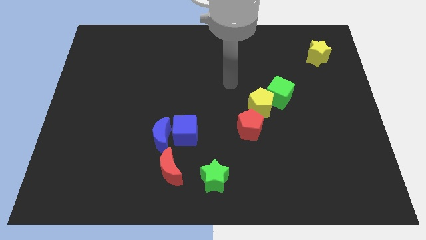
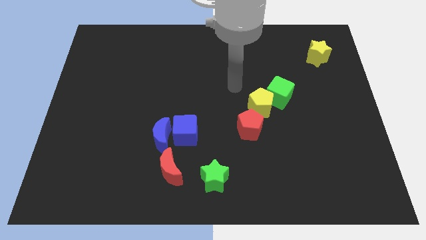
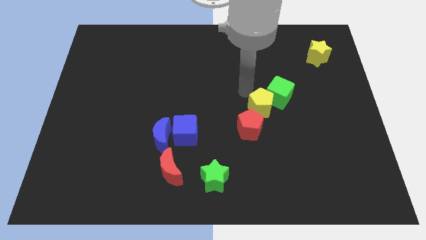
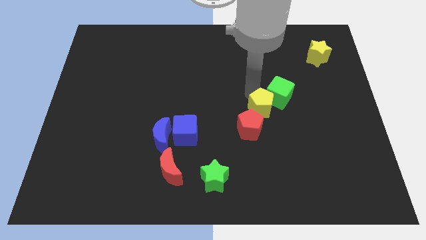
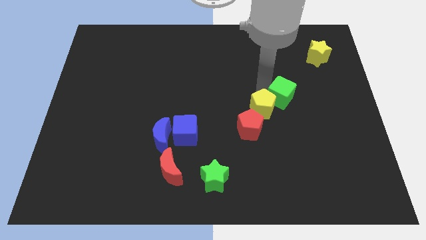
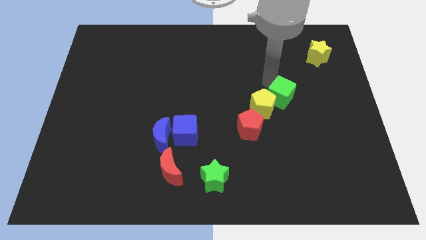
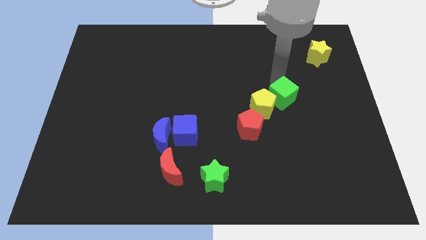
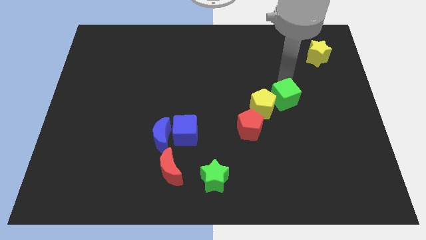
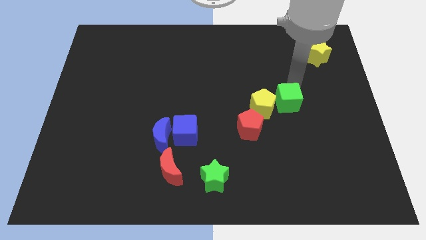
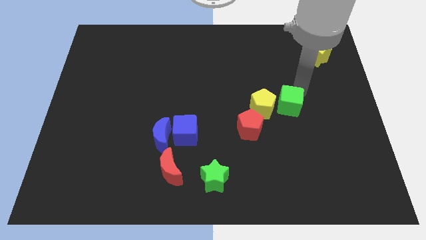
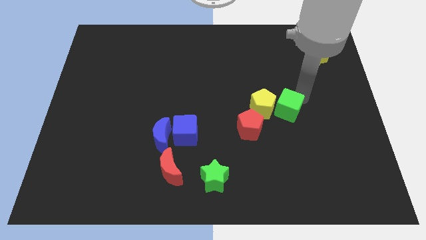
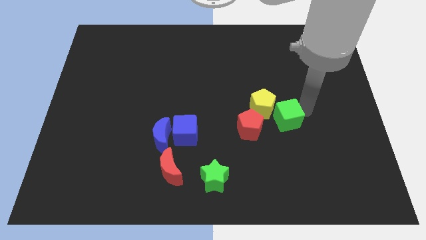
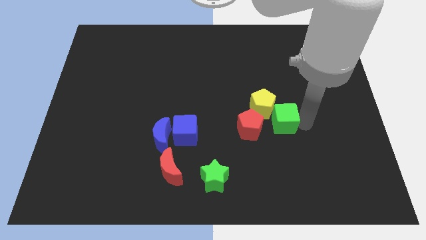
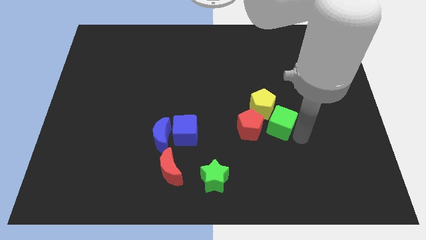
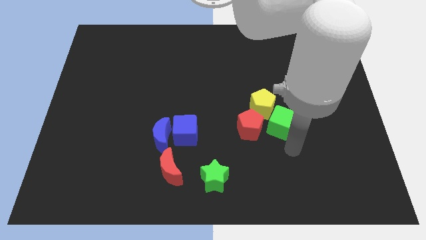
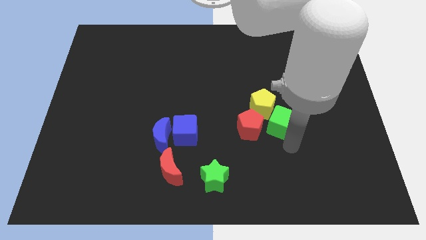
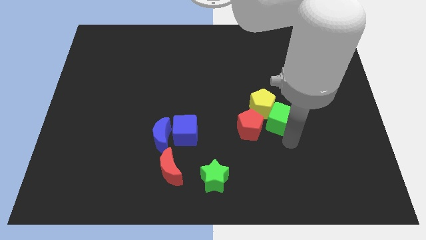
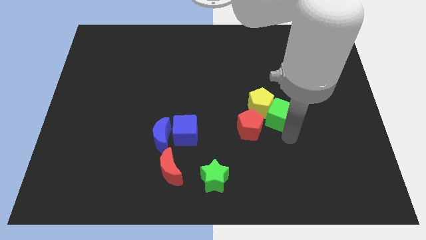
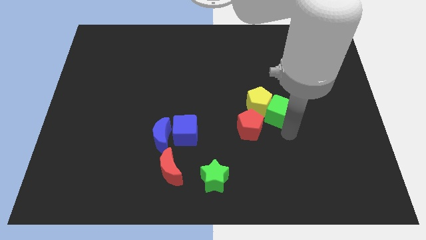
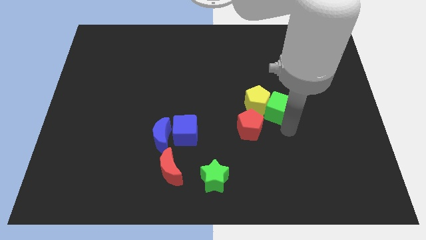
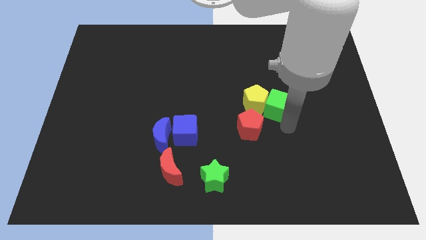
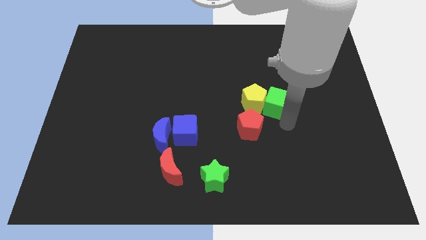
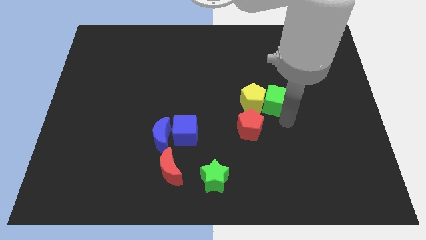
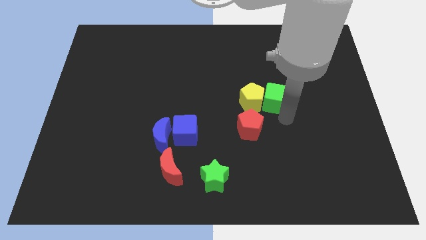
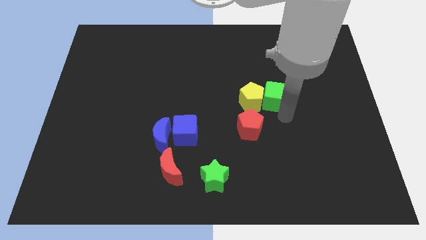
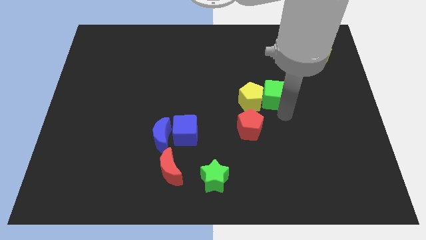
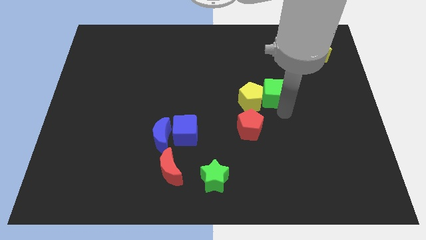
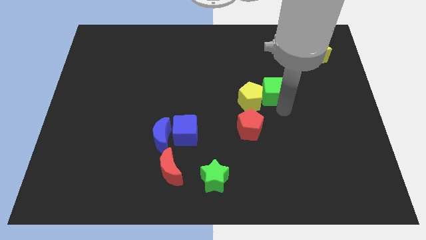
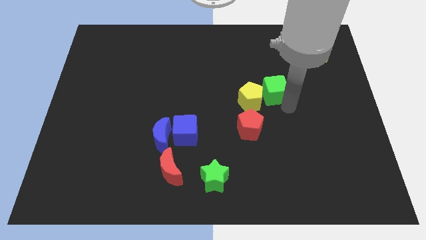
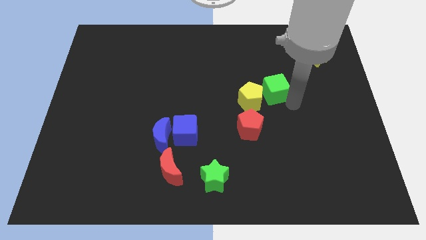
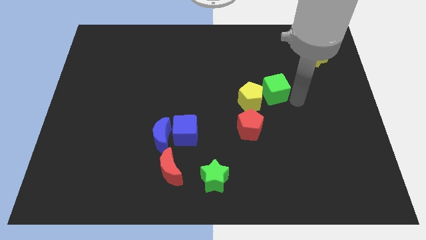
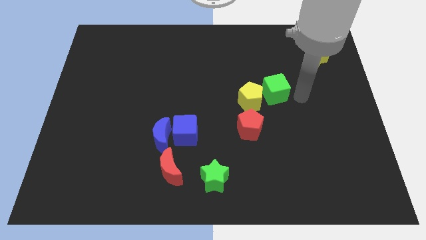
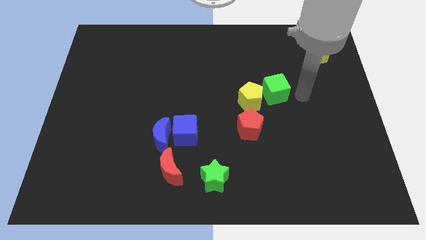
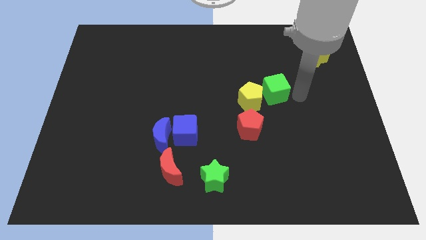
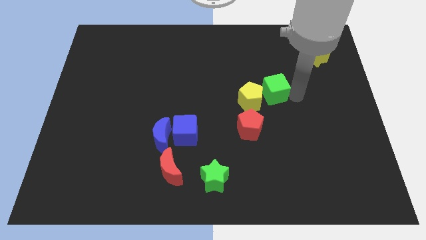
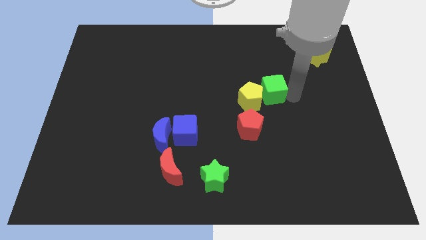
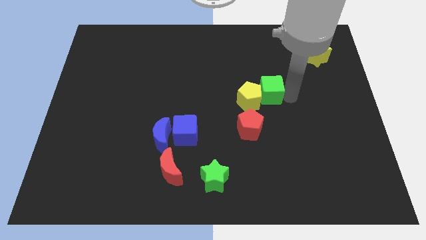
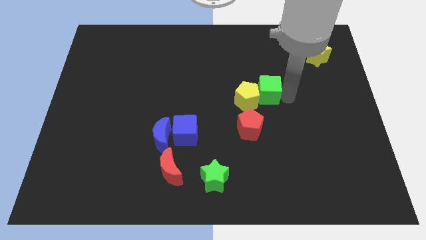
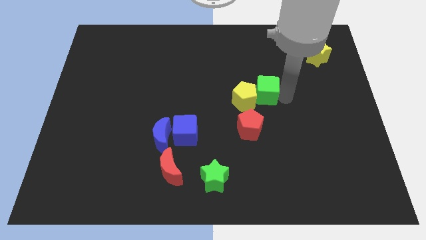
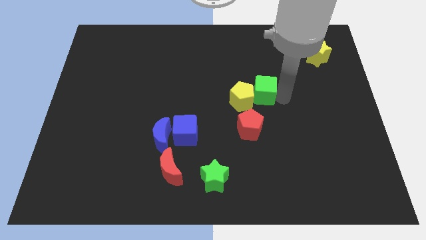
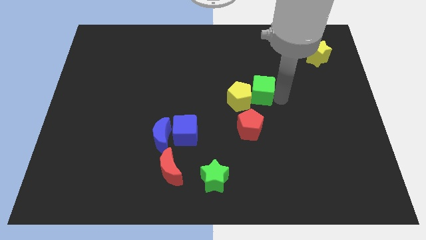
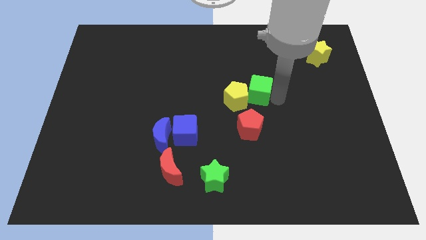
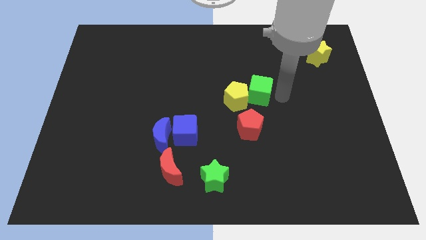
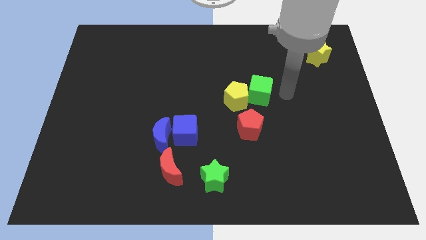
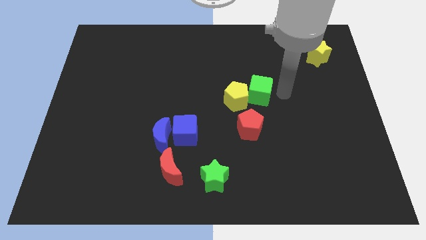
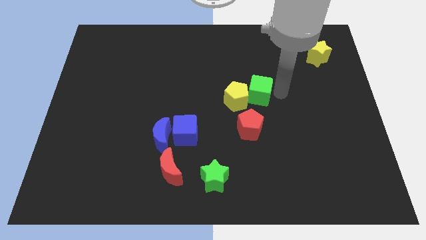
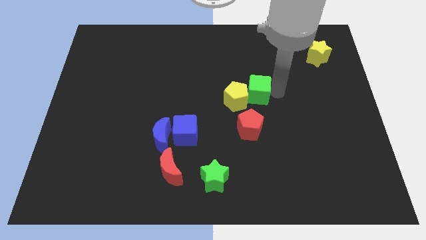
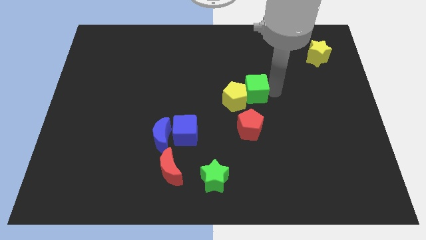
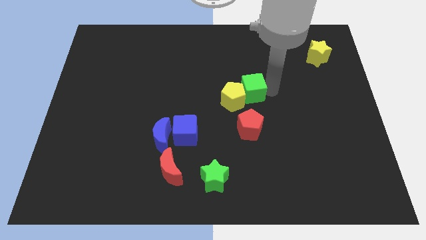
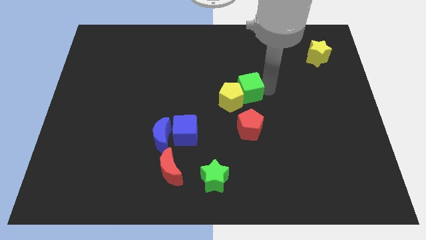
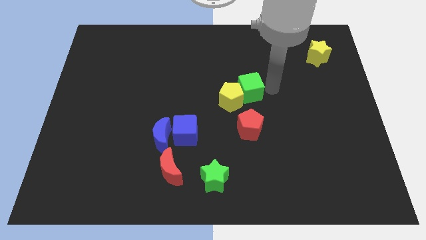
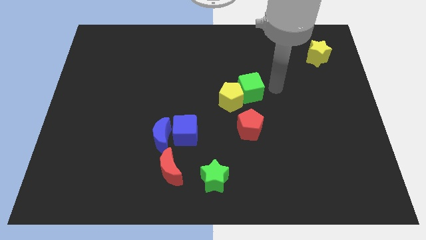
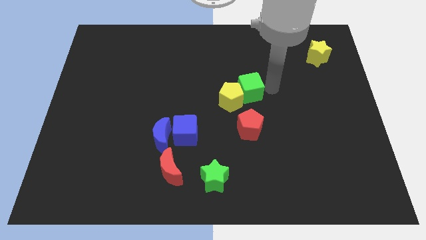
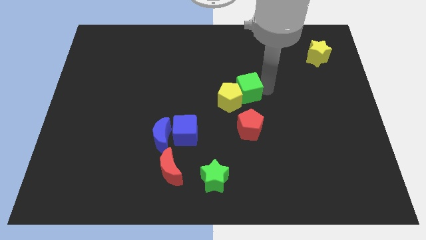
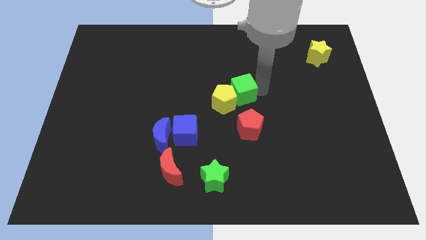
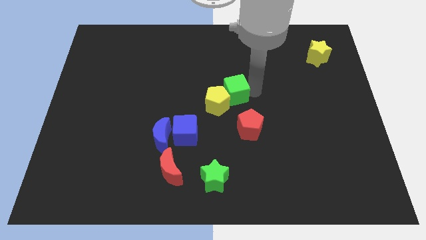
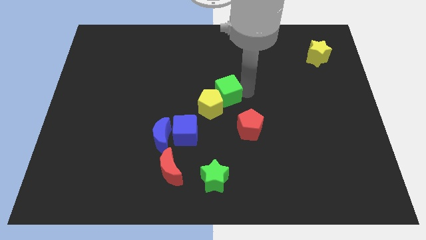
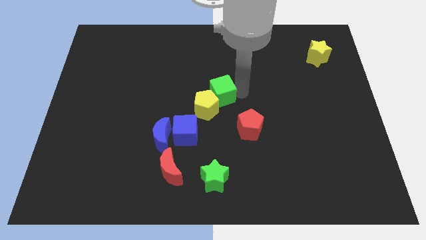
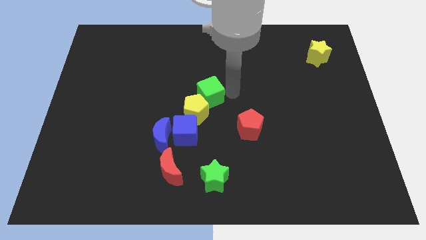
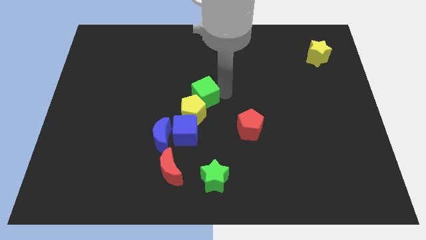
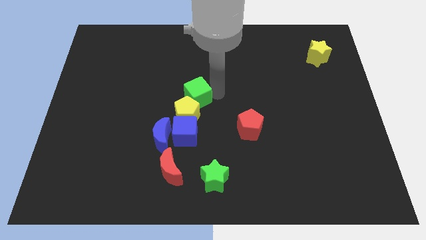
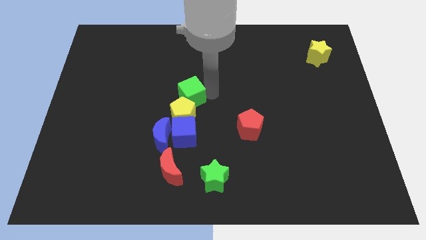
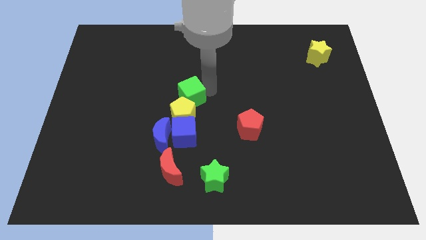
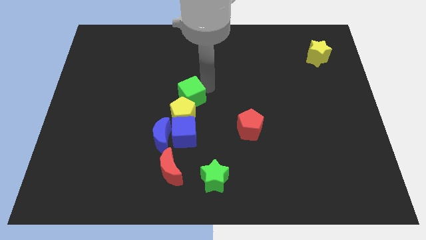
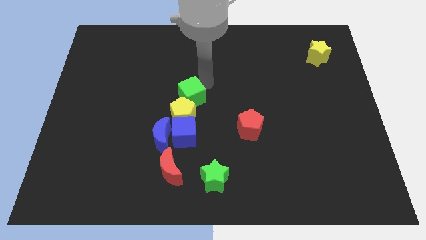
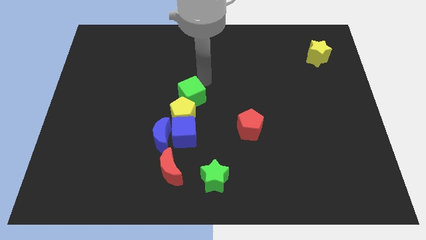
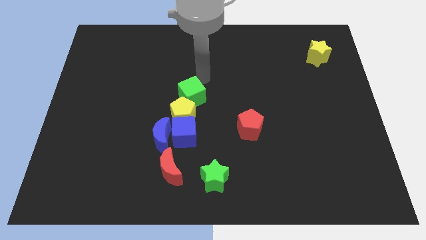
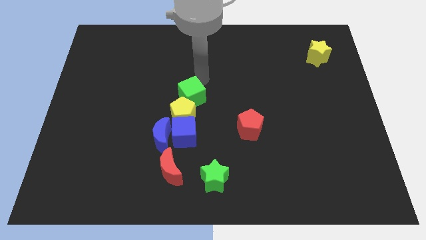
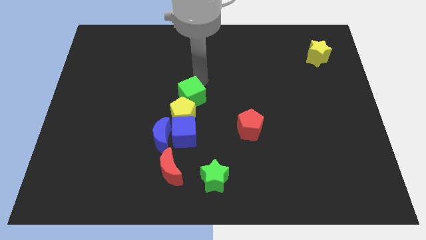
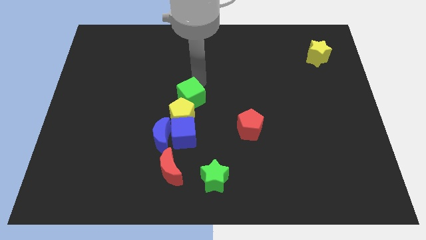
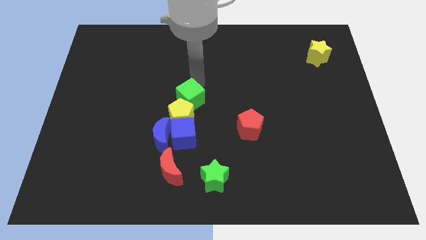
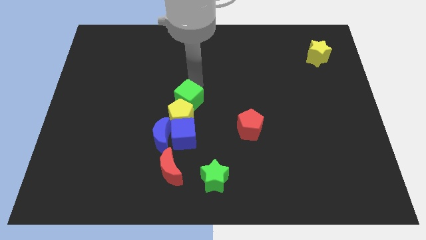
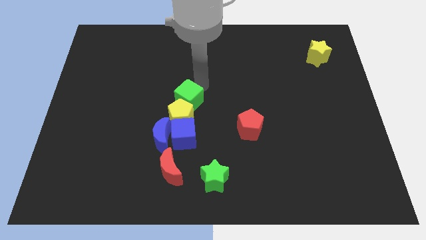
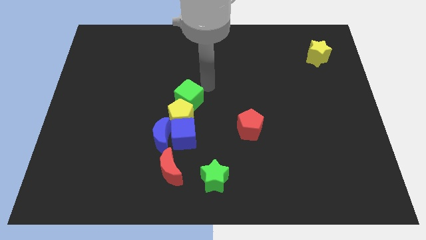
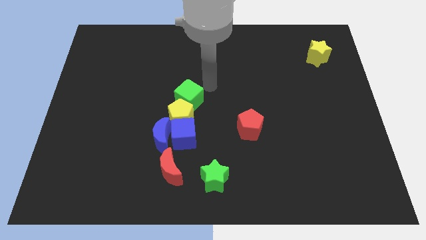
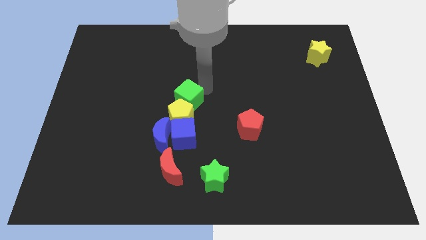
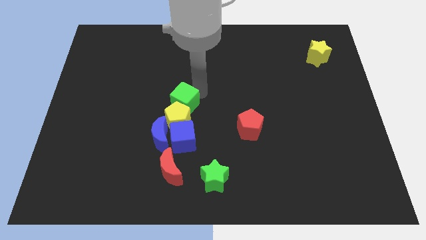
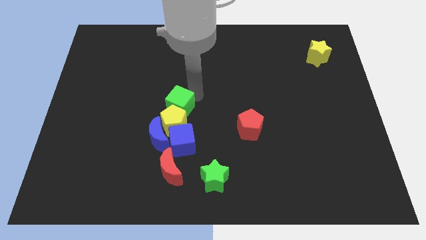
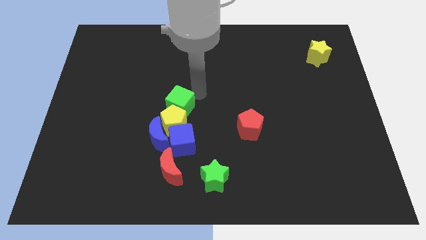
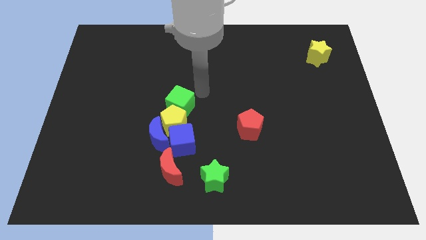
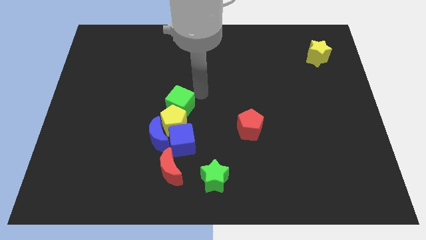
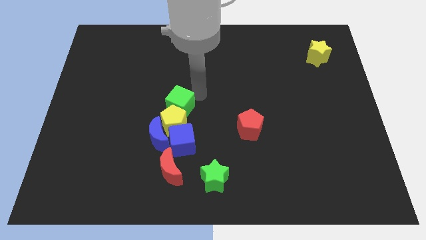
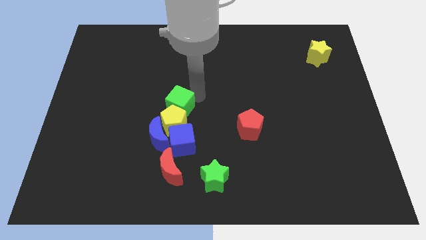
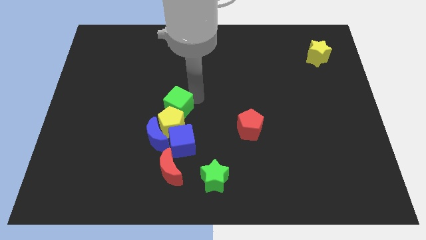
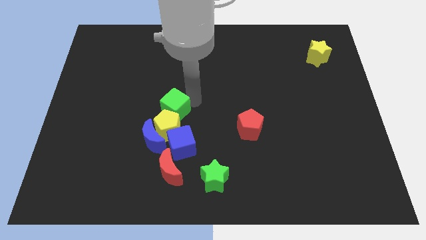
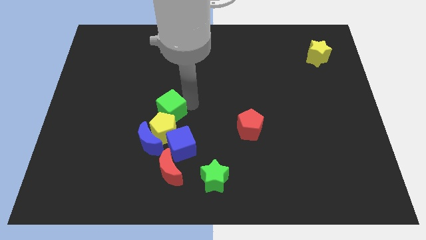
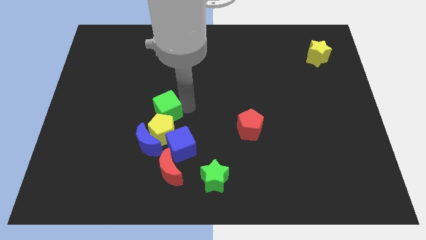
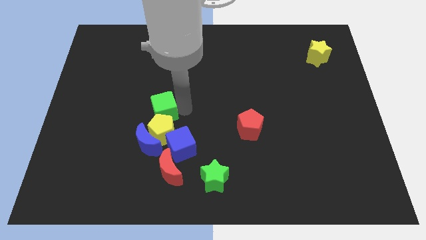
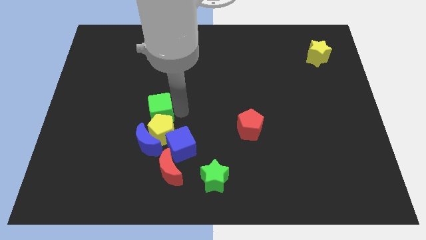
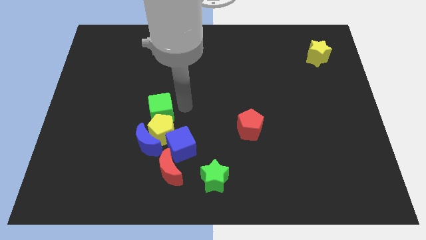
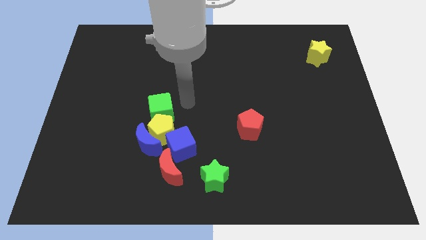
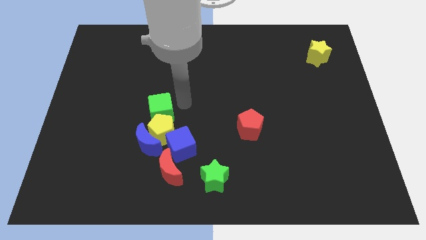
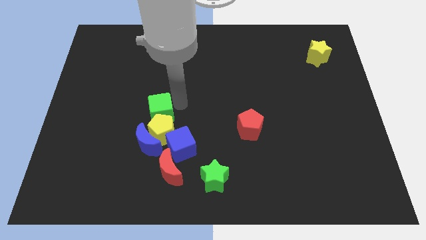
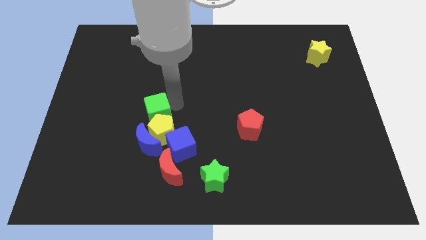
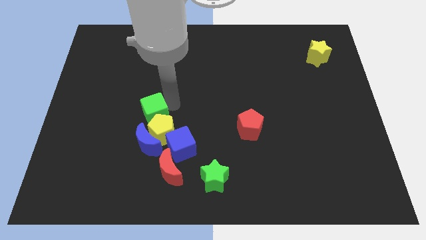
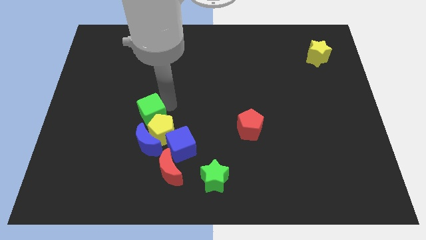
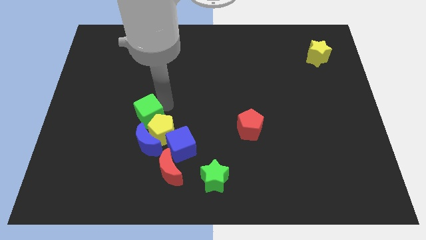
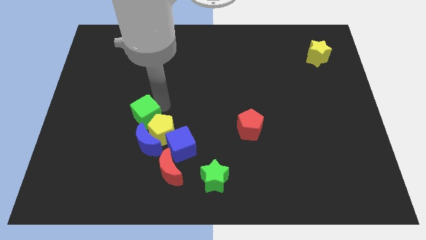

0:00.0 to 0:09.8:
put the green cube to the top left of the blue moon
